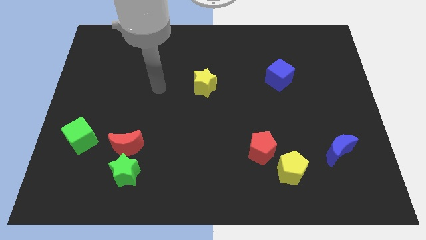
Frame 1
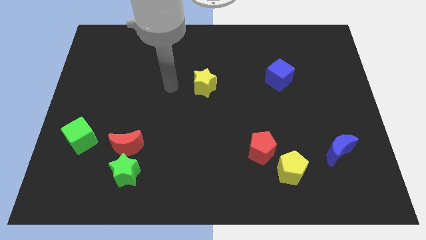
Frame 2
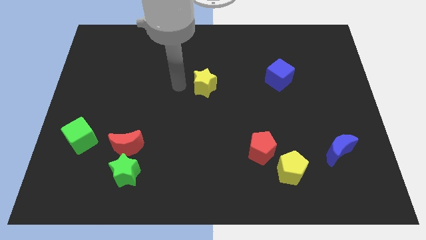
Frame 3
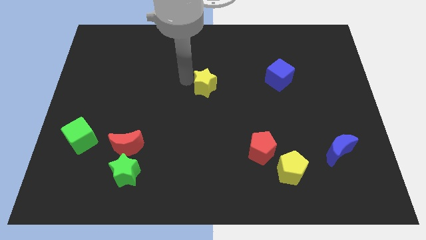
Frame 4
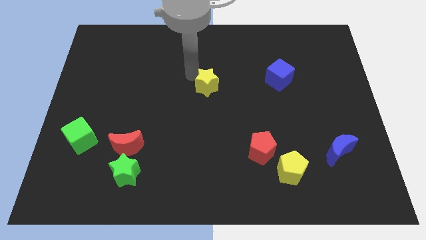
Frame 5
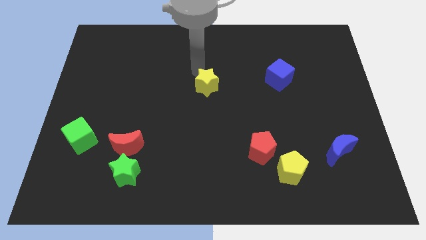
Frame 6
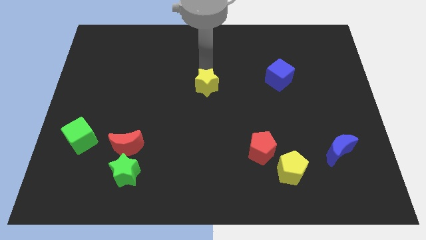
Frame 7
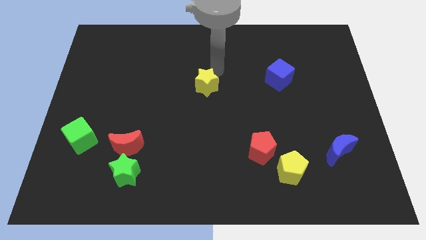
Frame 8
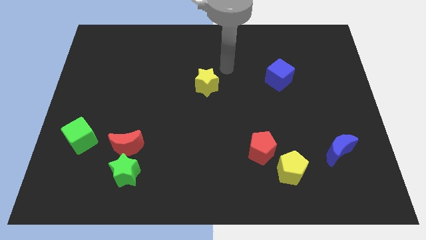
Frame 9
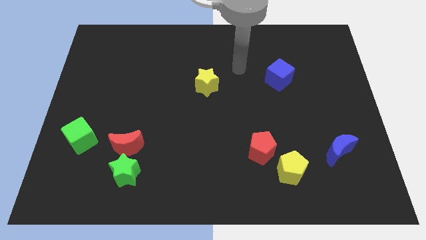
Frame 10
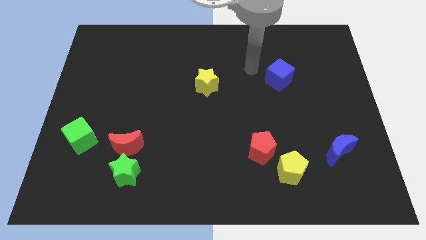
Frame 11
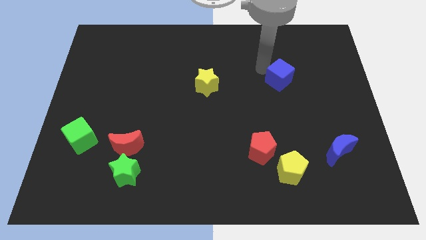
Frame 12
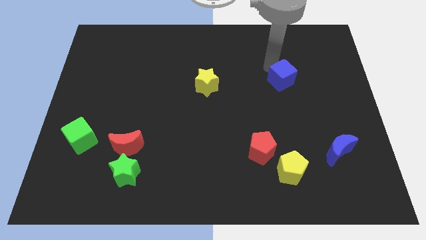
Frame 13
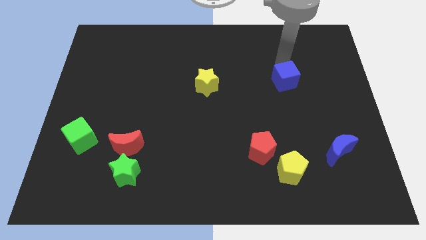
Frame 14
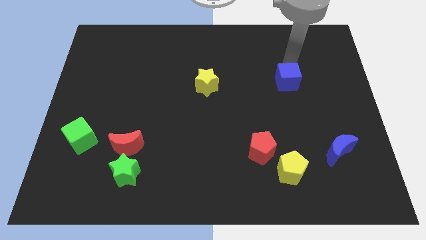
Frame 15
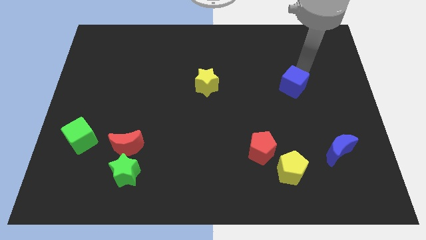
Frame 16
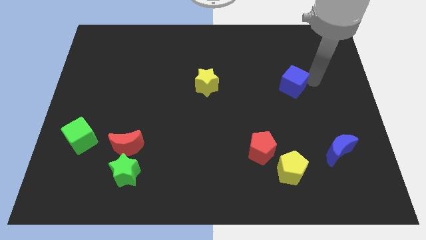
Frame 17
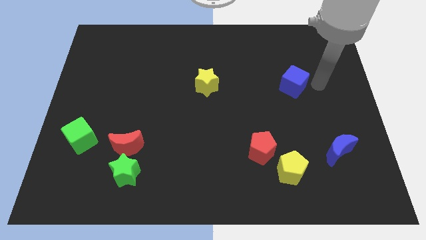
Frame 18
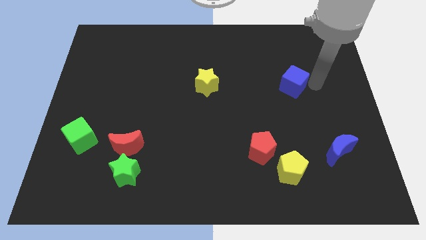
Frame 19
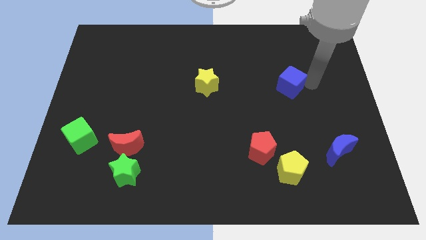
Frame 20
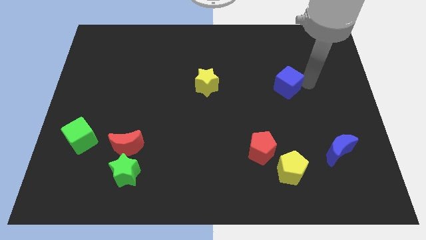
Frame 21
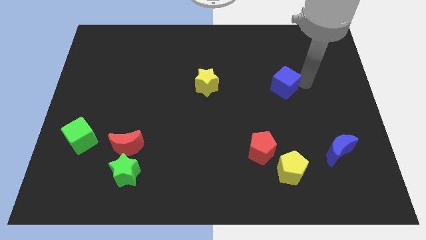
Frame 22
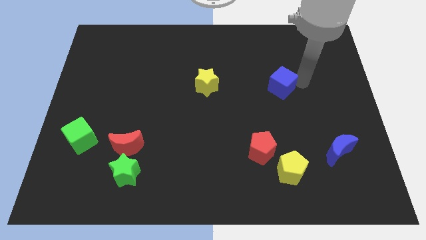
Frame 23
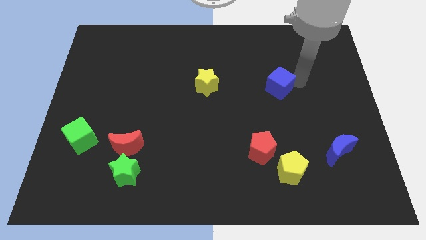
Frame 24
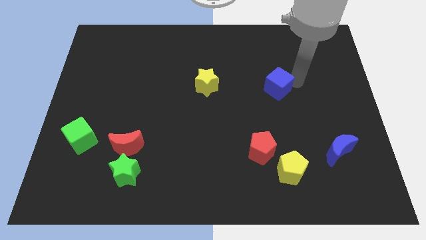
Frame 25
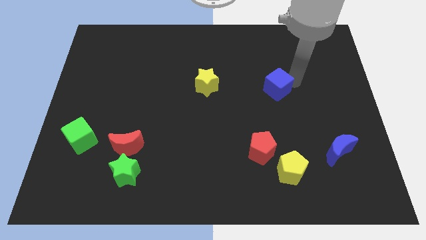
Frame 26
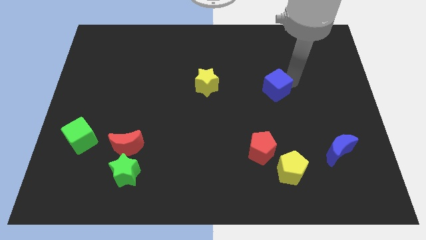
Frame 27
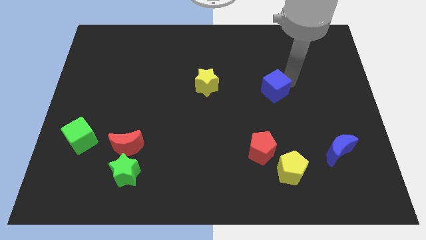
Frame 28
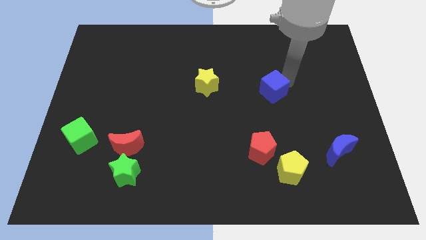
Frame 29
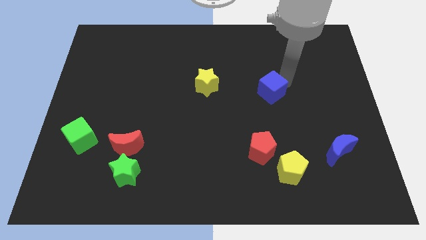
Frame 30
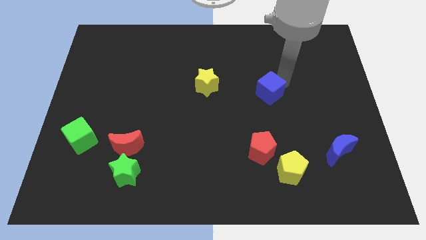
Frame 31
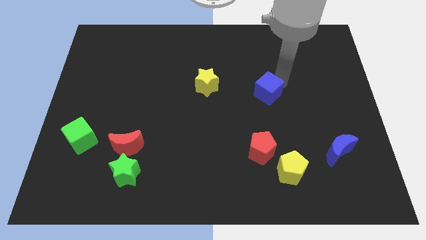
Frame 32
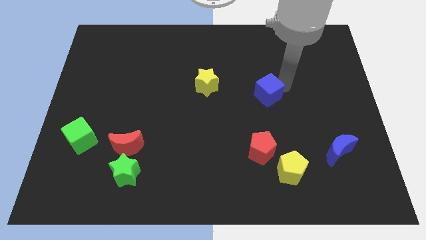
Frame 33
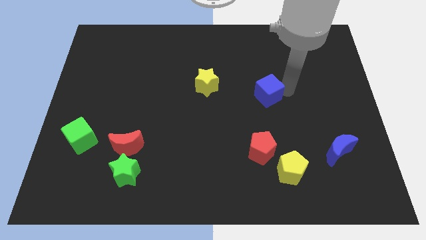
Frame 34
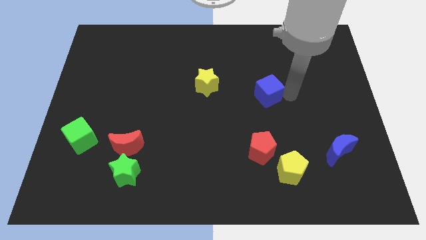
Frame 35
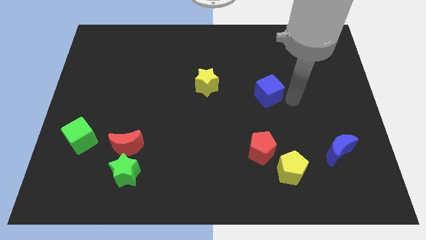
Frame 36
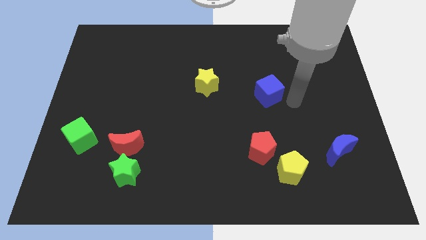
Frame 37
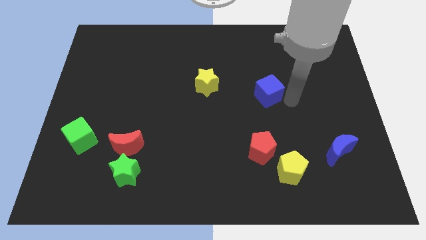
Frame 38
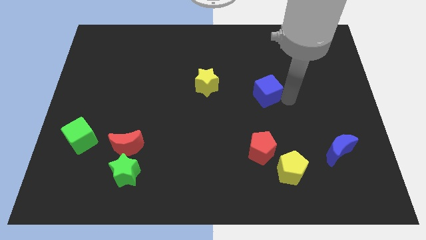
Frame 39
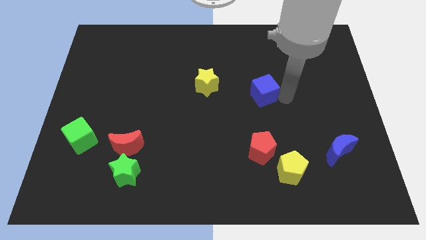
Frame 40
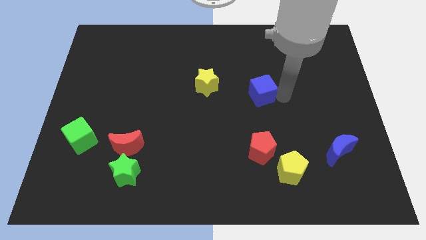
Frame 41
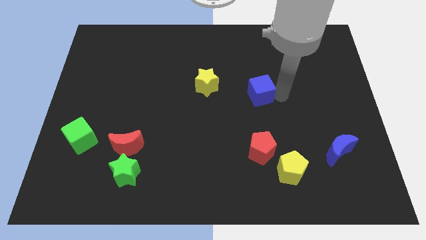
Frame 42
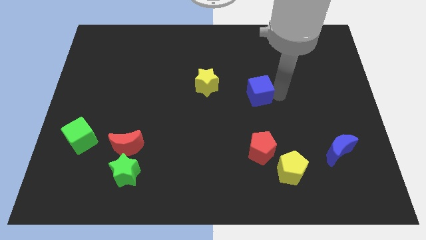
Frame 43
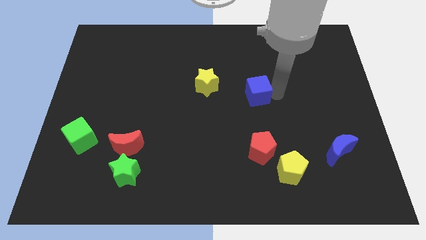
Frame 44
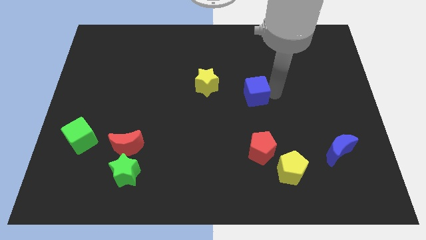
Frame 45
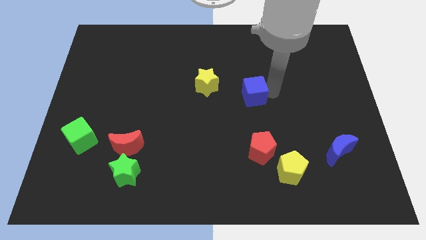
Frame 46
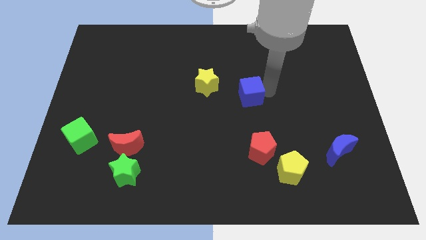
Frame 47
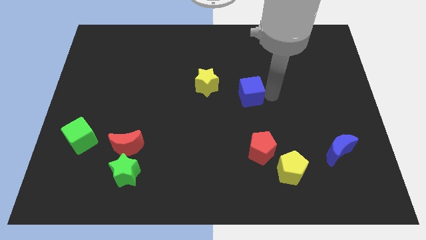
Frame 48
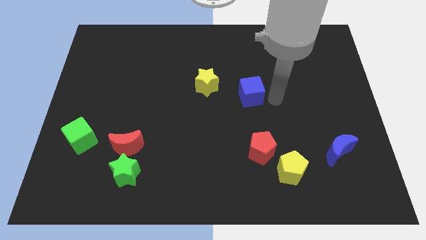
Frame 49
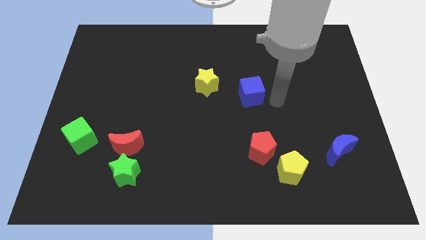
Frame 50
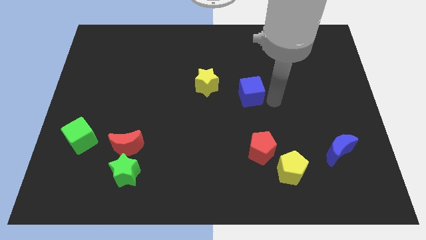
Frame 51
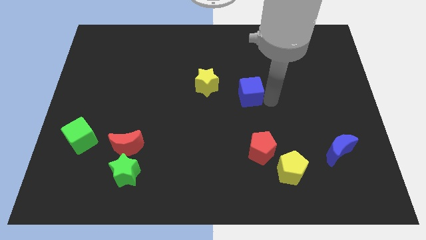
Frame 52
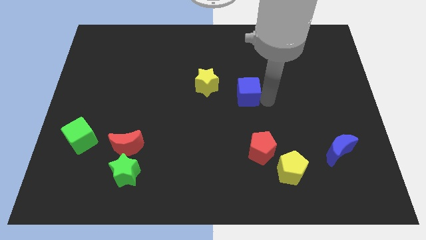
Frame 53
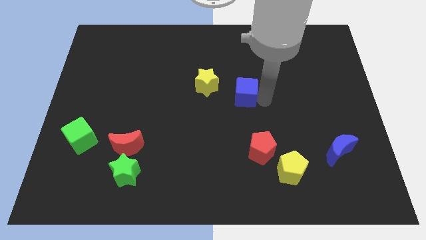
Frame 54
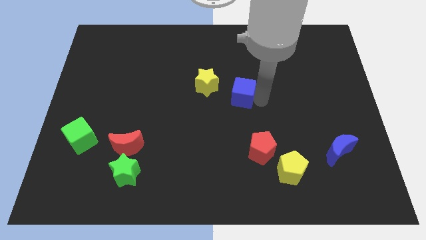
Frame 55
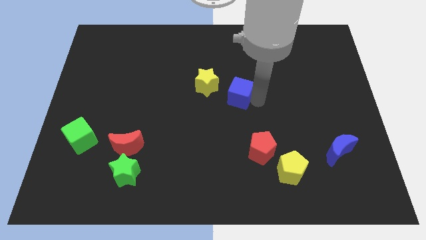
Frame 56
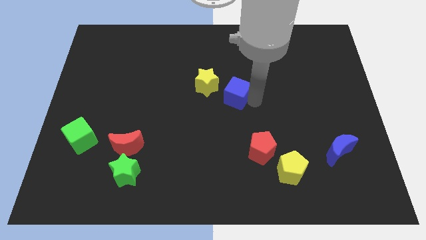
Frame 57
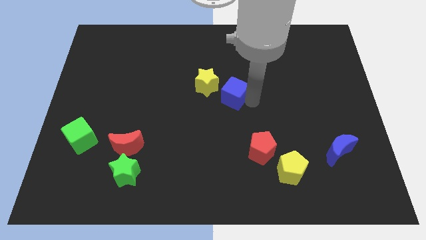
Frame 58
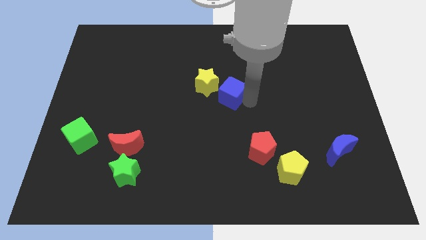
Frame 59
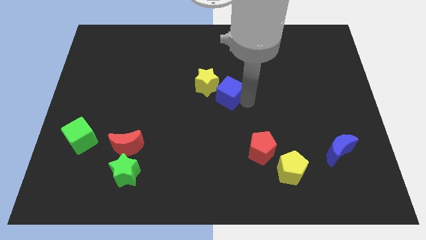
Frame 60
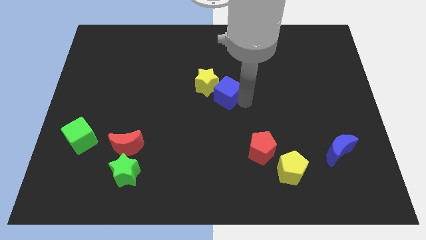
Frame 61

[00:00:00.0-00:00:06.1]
push the blue cube close to the yellow star

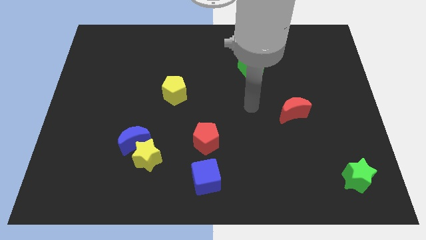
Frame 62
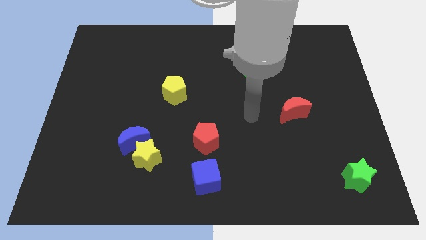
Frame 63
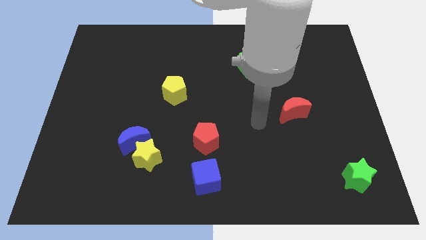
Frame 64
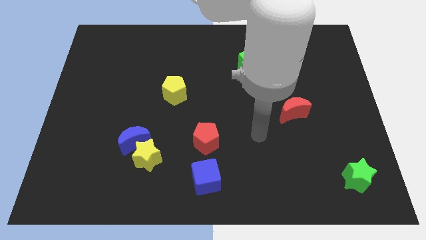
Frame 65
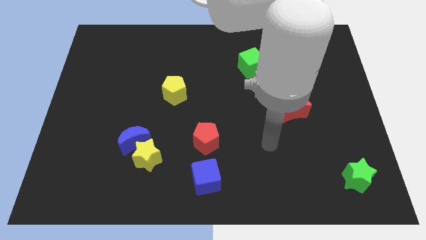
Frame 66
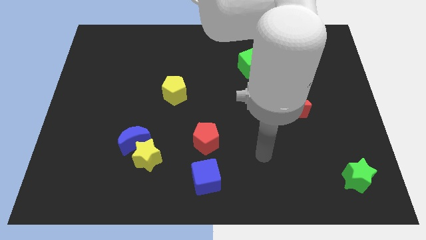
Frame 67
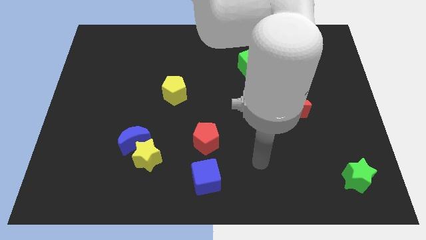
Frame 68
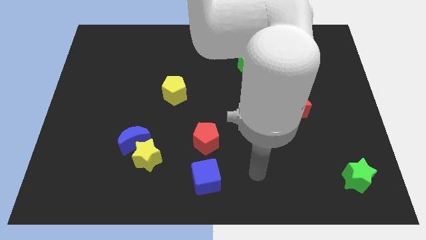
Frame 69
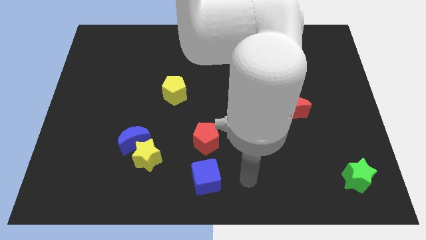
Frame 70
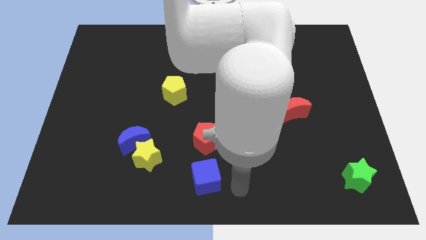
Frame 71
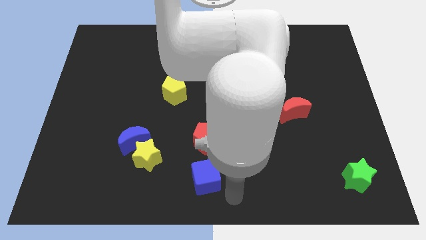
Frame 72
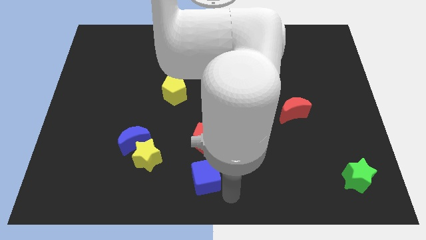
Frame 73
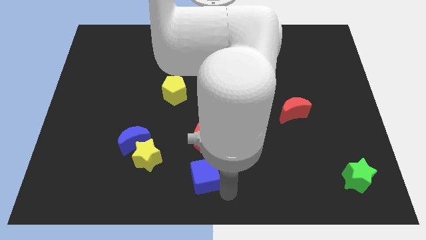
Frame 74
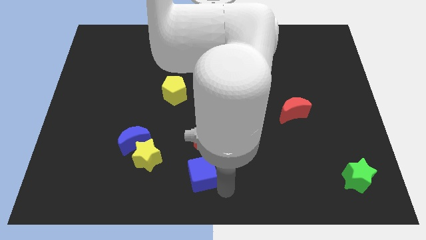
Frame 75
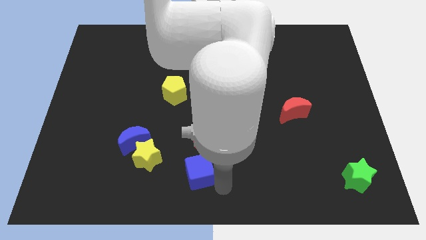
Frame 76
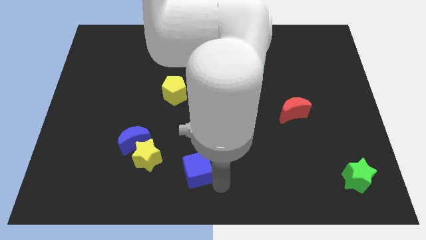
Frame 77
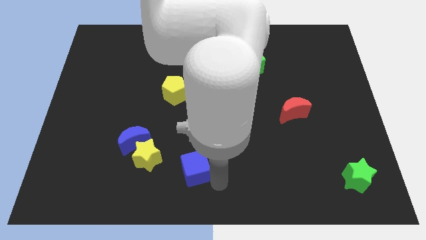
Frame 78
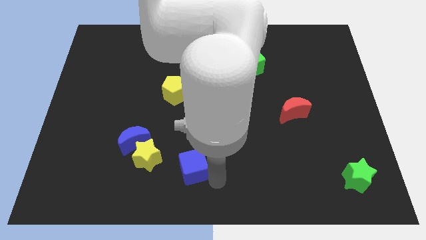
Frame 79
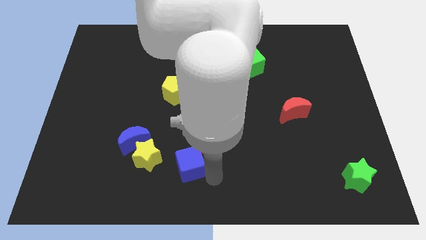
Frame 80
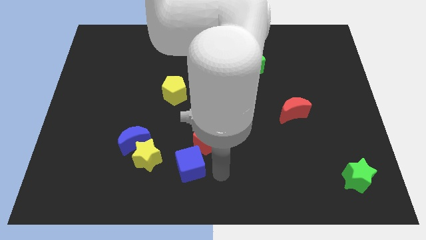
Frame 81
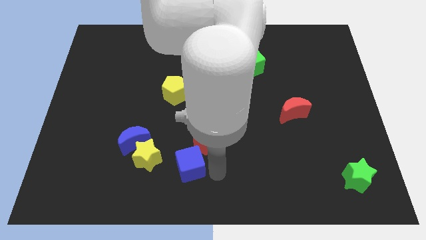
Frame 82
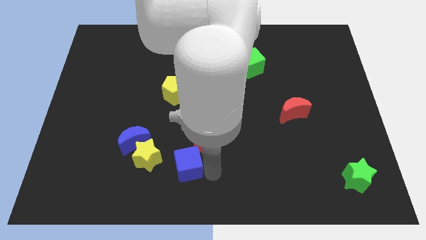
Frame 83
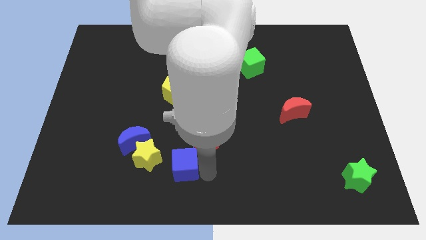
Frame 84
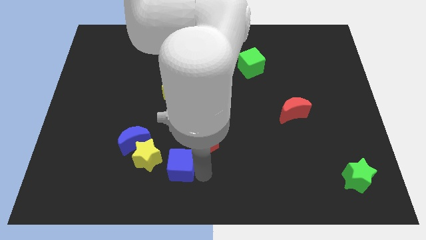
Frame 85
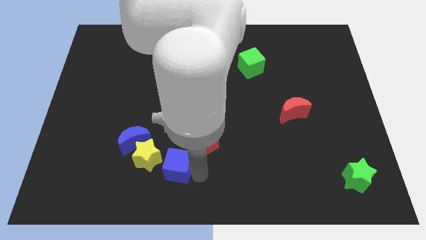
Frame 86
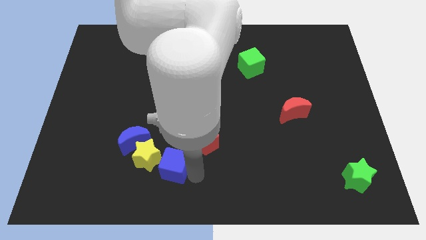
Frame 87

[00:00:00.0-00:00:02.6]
move the blue cube close to the yellow star
